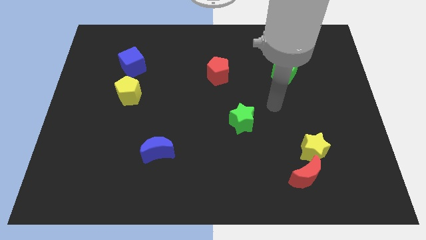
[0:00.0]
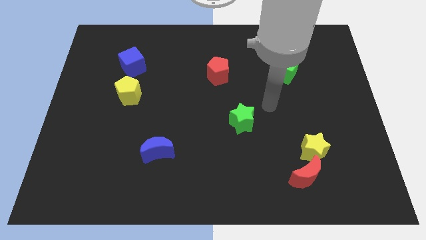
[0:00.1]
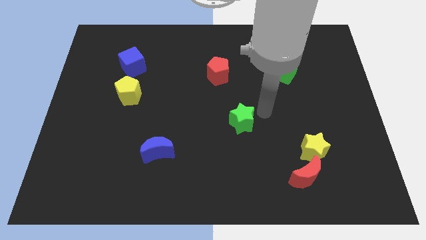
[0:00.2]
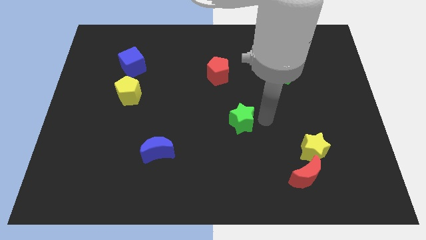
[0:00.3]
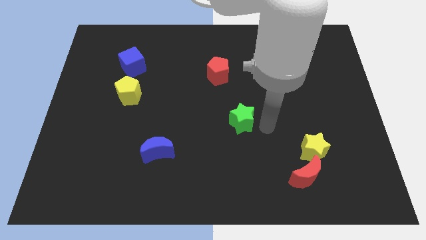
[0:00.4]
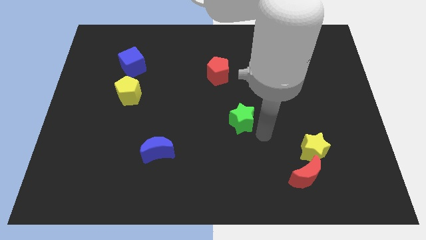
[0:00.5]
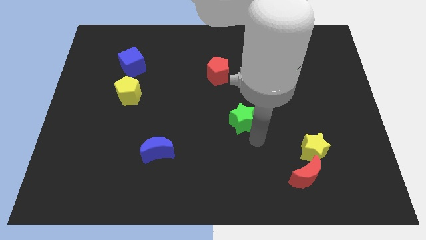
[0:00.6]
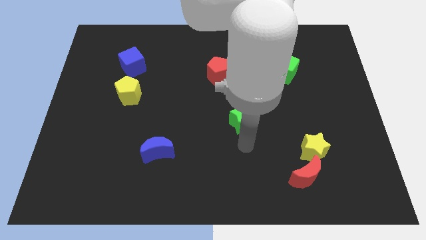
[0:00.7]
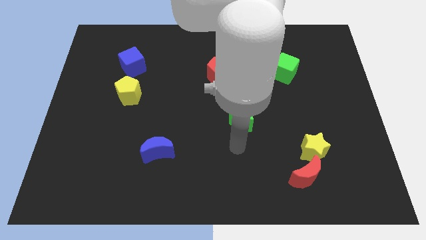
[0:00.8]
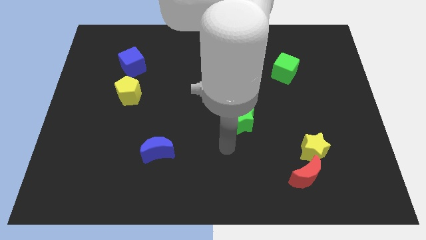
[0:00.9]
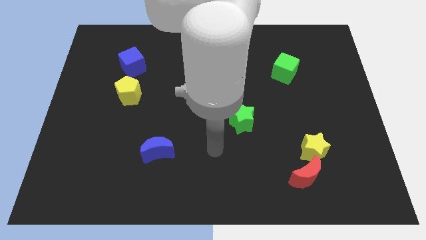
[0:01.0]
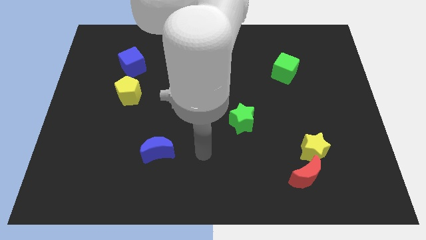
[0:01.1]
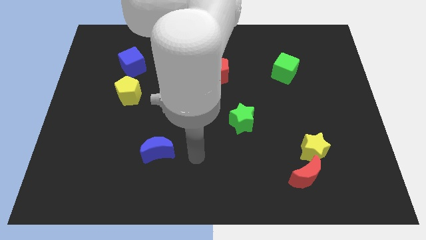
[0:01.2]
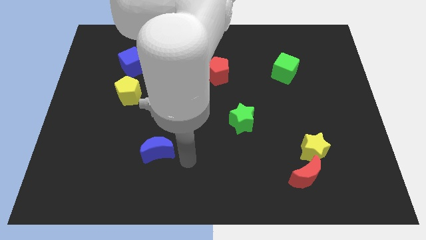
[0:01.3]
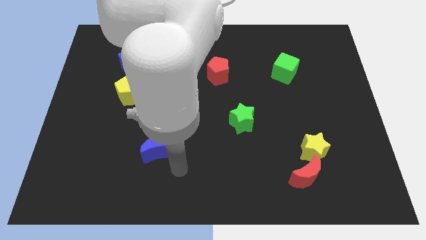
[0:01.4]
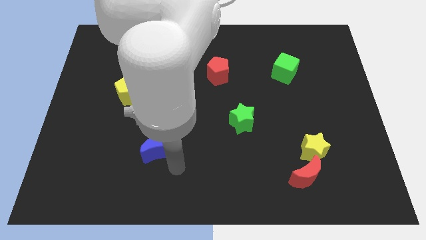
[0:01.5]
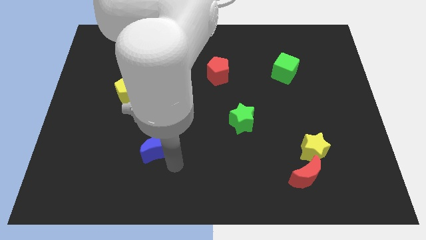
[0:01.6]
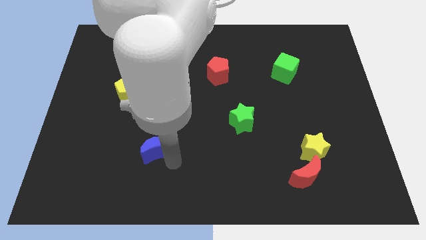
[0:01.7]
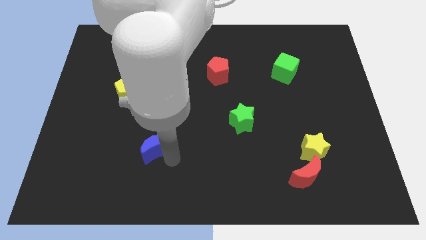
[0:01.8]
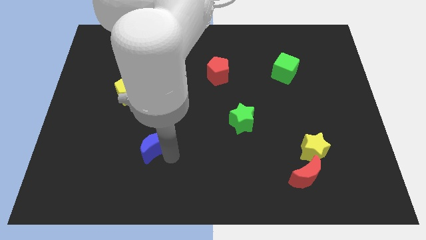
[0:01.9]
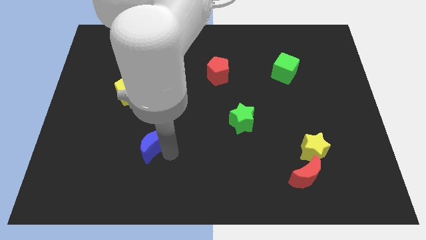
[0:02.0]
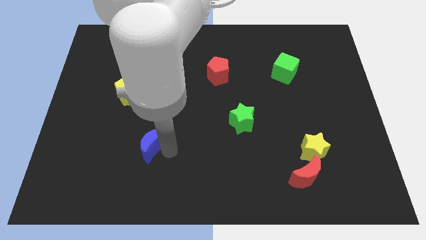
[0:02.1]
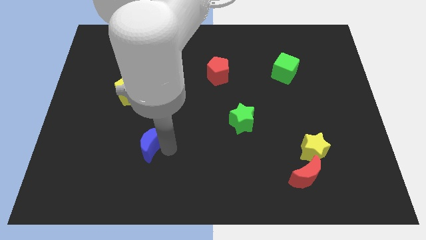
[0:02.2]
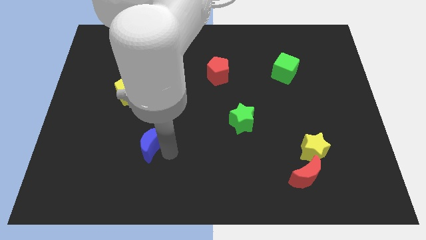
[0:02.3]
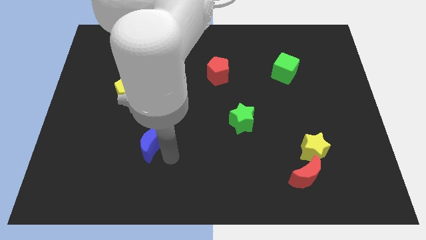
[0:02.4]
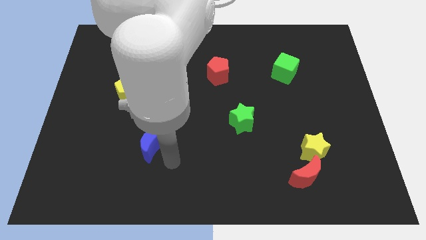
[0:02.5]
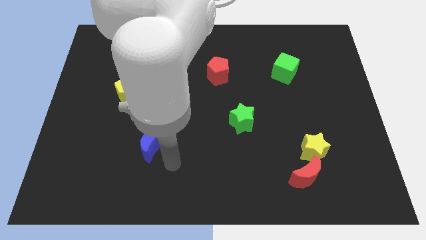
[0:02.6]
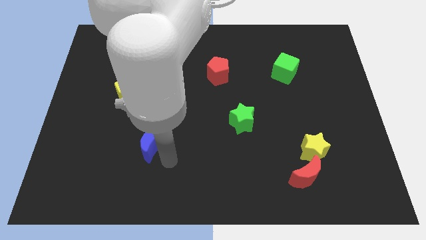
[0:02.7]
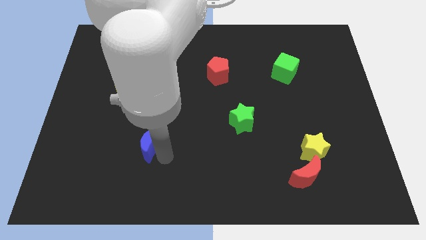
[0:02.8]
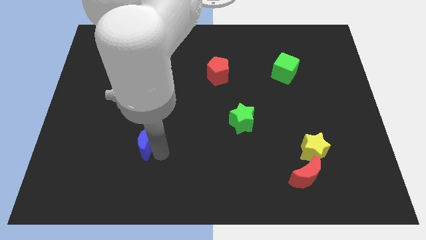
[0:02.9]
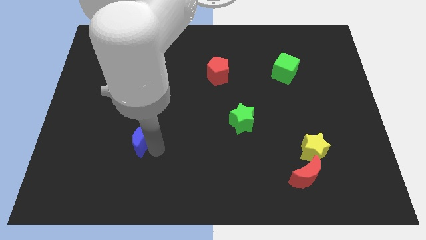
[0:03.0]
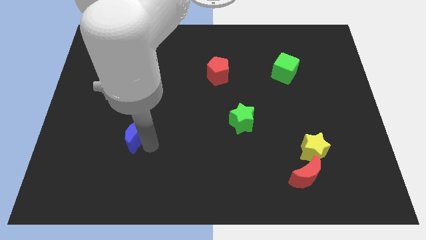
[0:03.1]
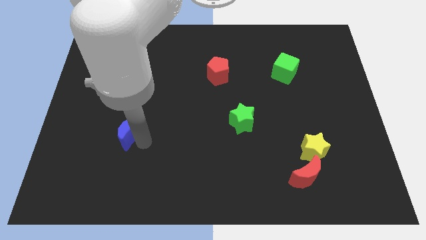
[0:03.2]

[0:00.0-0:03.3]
slide the blue moon a little bit up and left

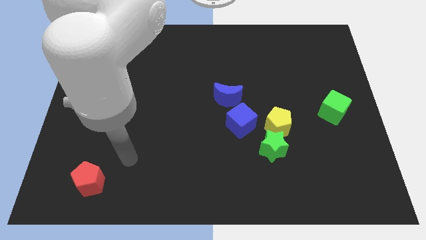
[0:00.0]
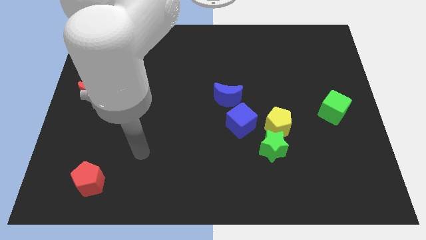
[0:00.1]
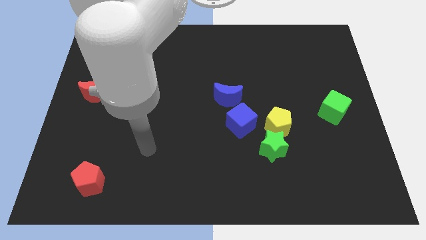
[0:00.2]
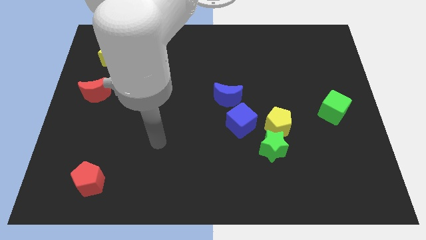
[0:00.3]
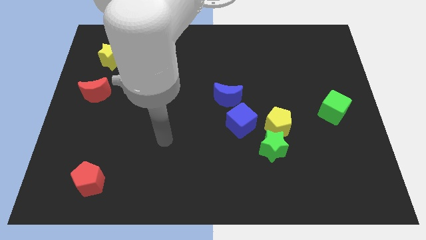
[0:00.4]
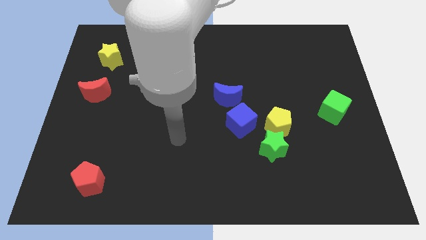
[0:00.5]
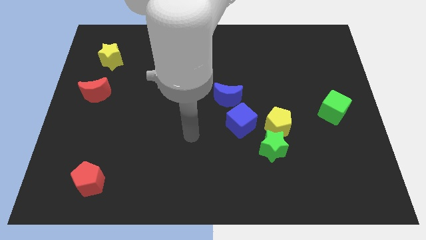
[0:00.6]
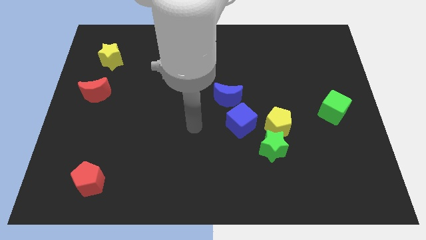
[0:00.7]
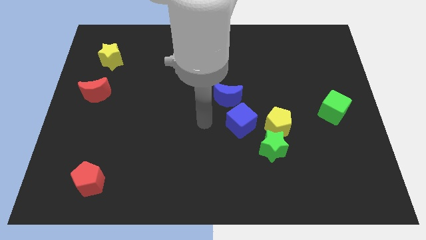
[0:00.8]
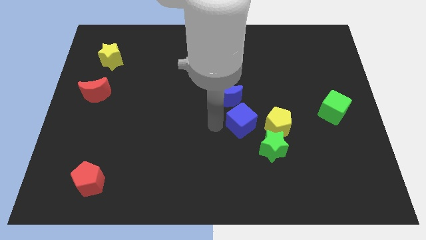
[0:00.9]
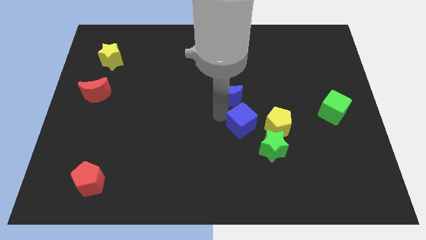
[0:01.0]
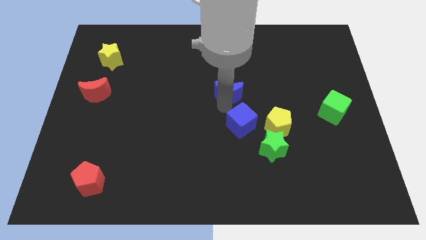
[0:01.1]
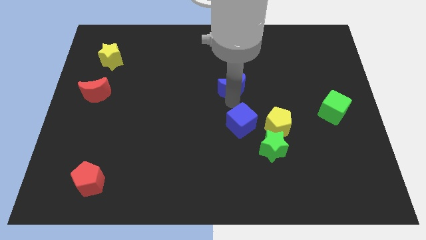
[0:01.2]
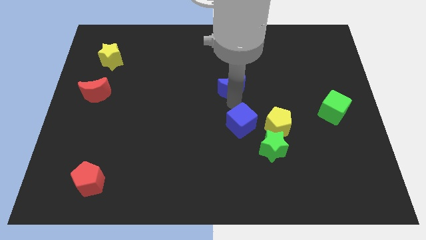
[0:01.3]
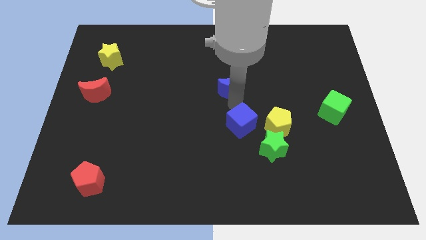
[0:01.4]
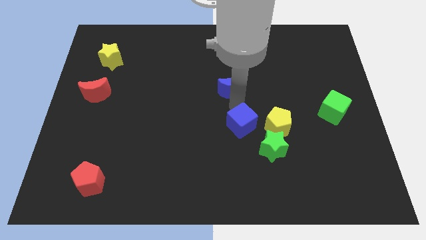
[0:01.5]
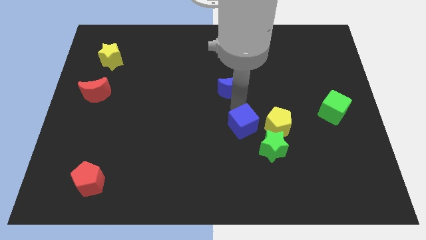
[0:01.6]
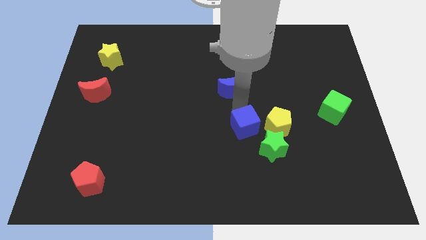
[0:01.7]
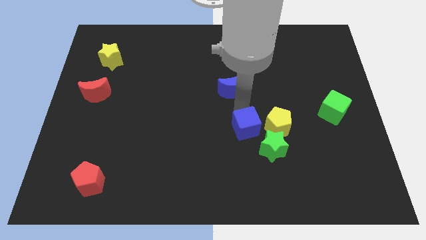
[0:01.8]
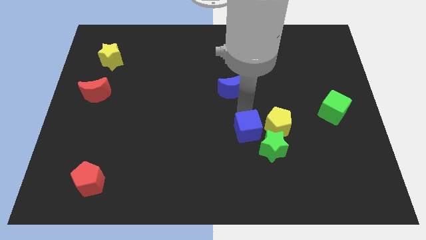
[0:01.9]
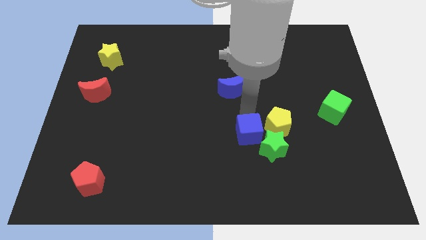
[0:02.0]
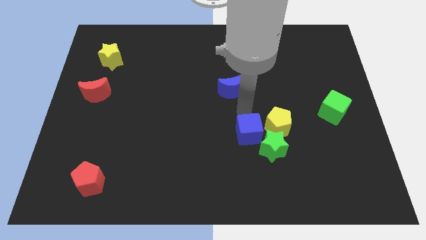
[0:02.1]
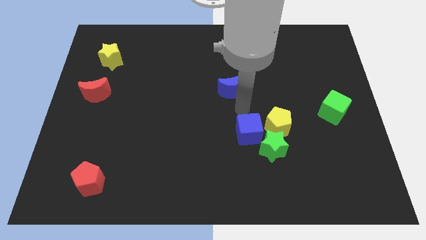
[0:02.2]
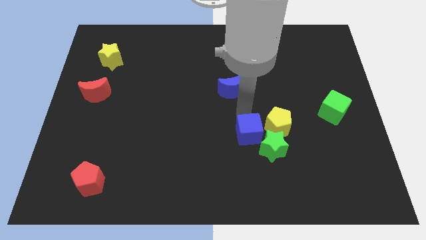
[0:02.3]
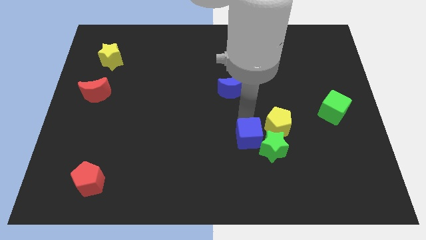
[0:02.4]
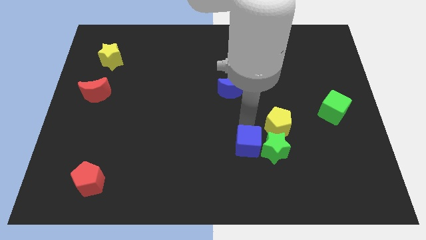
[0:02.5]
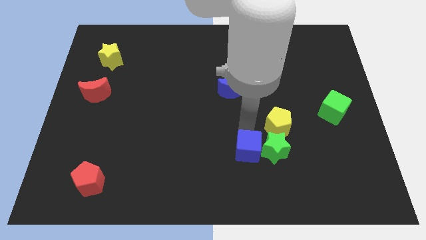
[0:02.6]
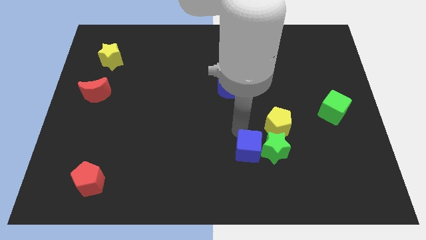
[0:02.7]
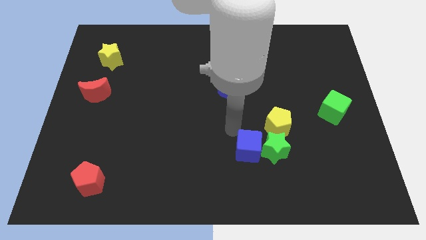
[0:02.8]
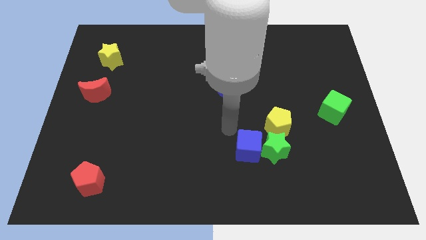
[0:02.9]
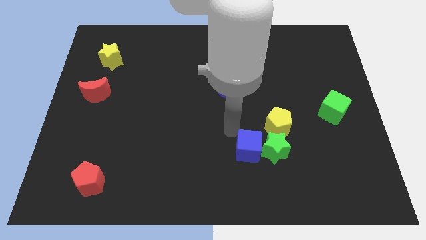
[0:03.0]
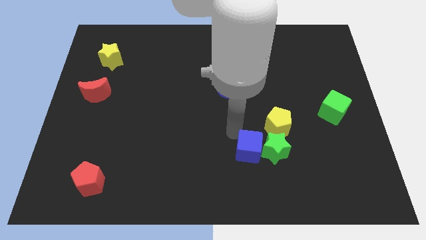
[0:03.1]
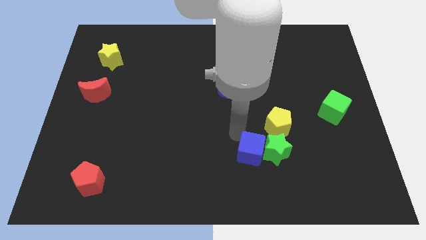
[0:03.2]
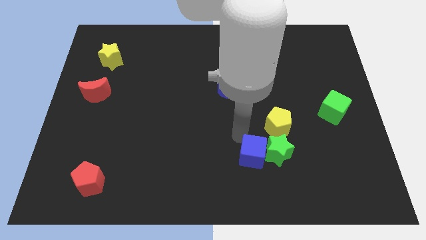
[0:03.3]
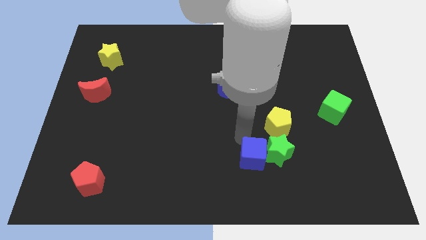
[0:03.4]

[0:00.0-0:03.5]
slightly slide the blue cube down and then right

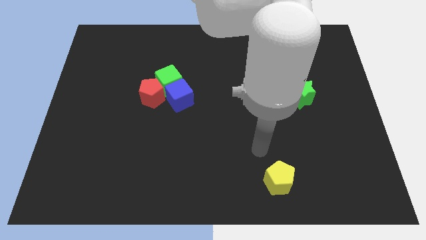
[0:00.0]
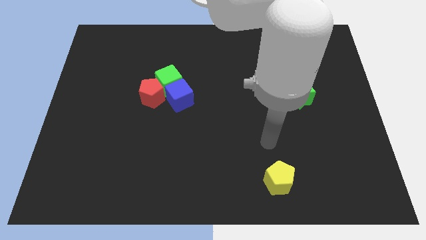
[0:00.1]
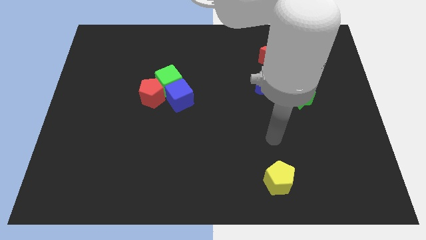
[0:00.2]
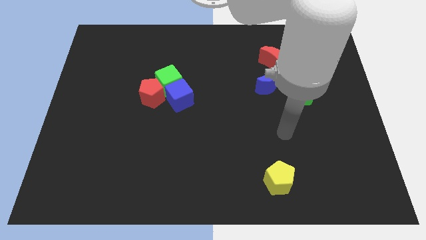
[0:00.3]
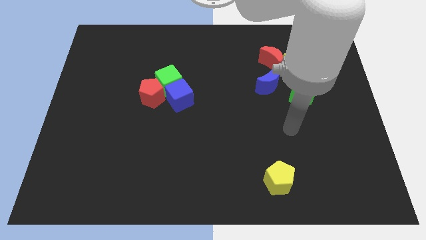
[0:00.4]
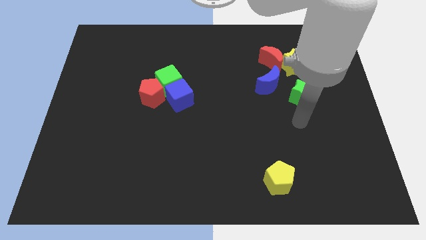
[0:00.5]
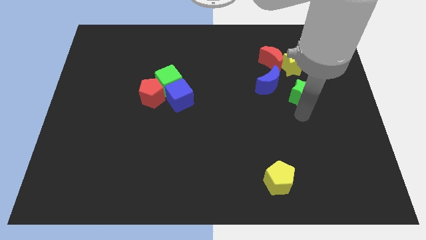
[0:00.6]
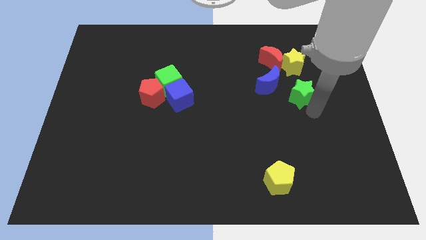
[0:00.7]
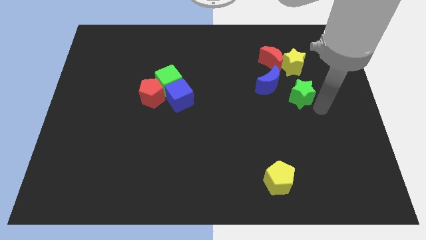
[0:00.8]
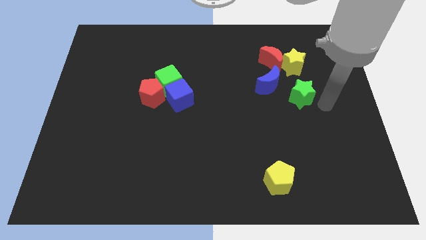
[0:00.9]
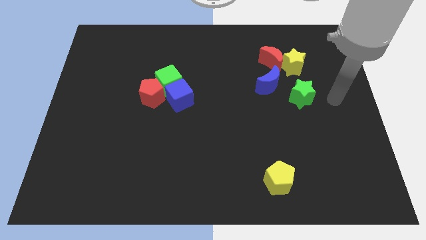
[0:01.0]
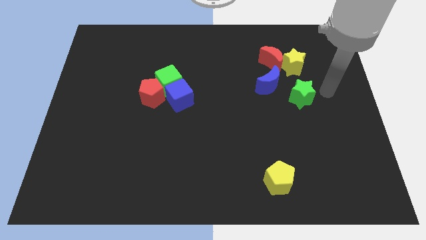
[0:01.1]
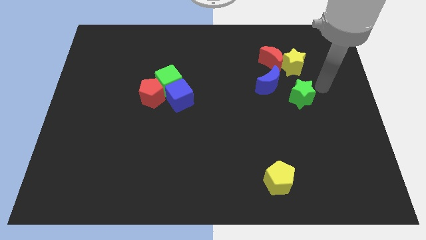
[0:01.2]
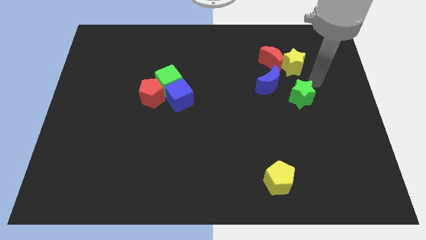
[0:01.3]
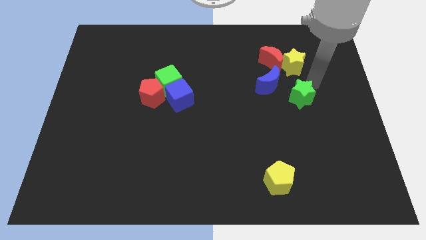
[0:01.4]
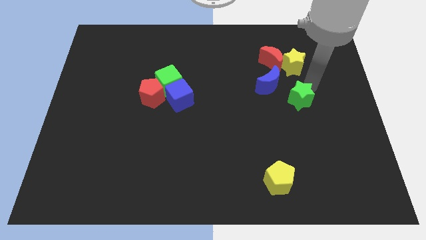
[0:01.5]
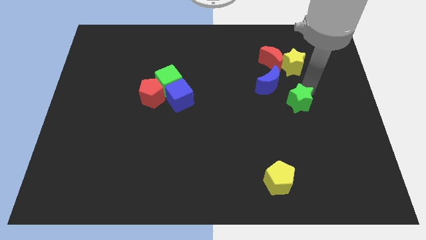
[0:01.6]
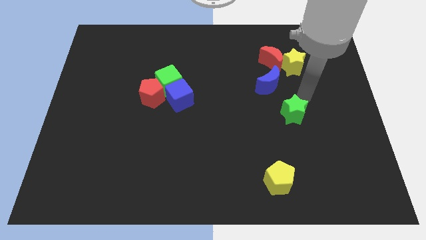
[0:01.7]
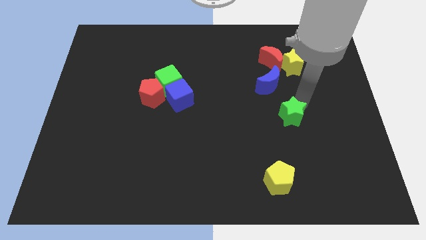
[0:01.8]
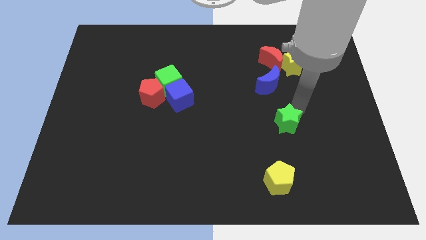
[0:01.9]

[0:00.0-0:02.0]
push the green star downwards and left a bit
